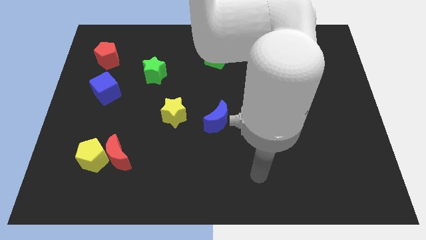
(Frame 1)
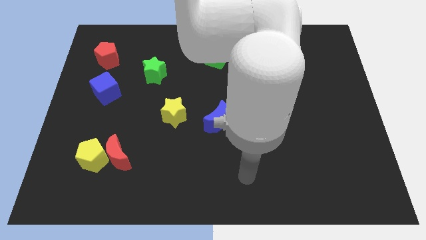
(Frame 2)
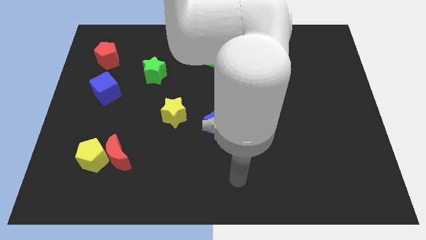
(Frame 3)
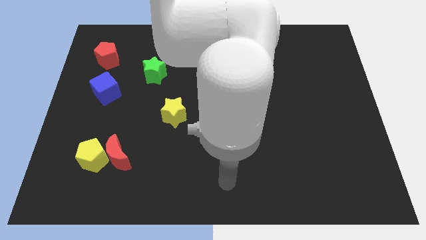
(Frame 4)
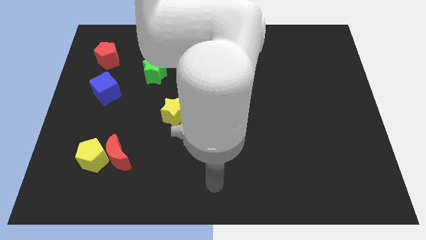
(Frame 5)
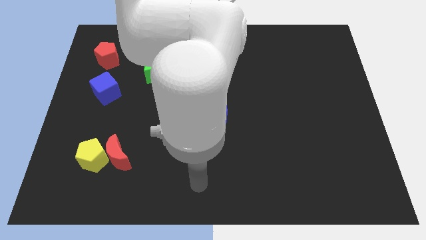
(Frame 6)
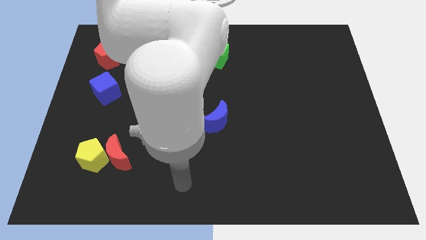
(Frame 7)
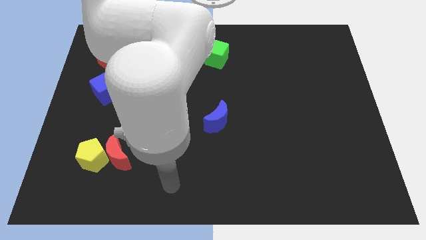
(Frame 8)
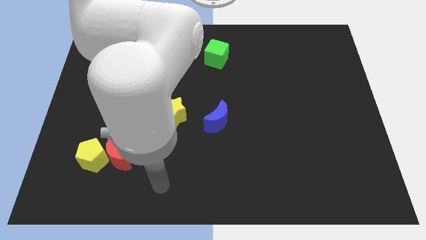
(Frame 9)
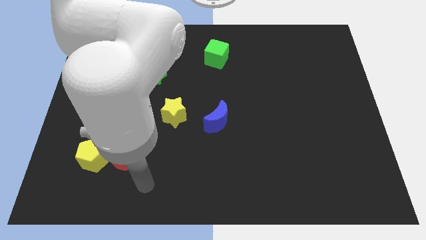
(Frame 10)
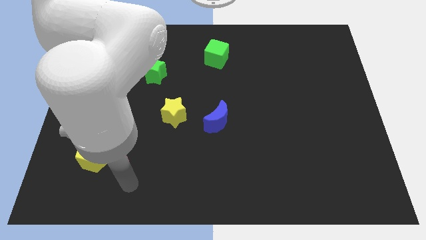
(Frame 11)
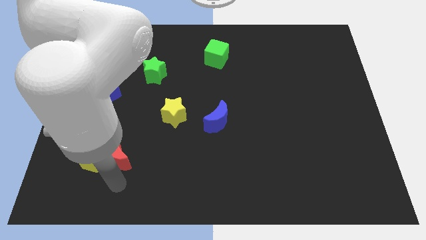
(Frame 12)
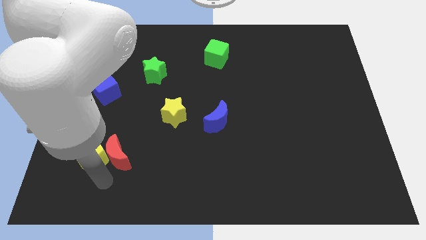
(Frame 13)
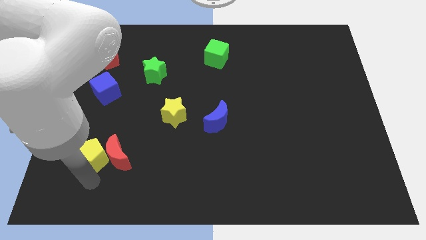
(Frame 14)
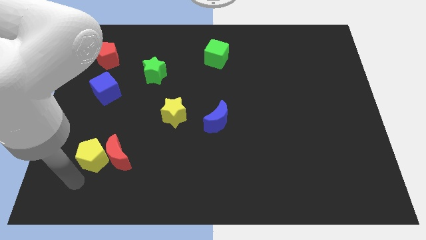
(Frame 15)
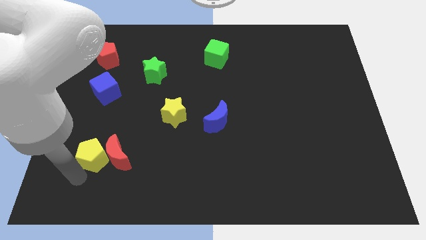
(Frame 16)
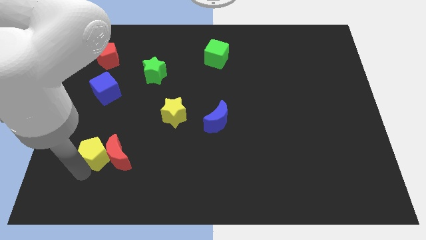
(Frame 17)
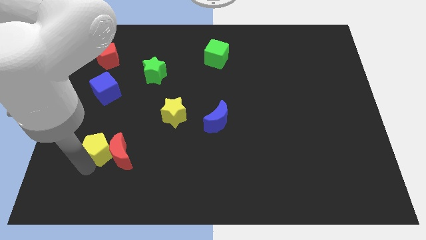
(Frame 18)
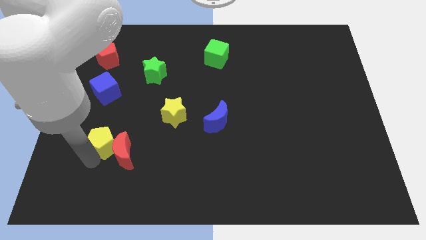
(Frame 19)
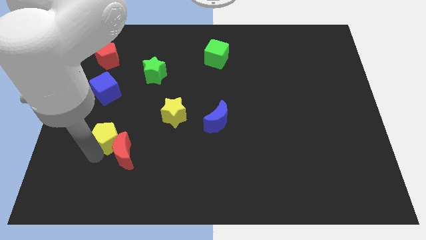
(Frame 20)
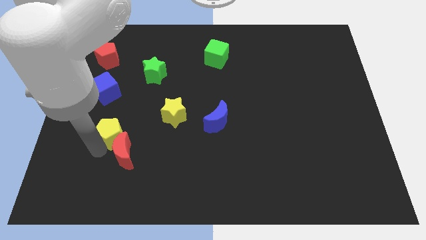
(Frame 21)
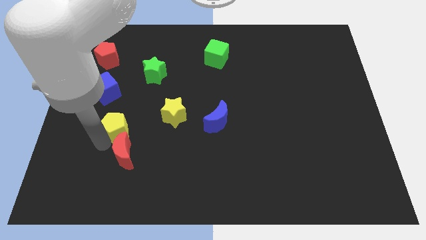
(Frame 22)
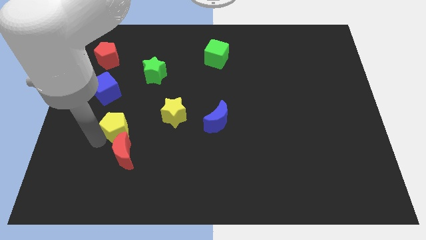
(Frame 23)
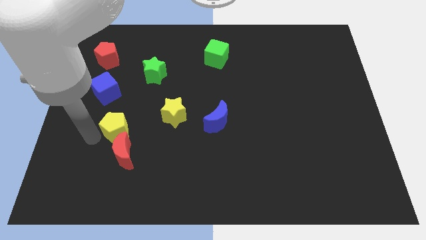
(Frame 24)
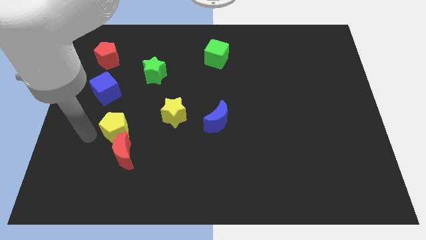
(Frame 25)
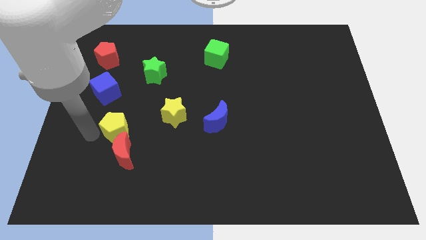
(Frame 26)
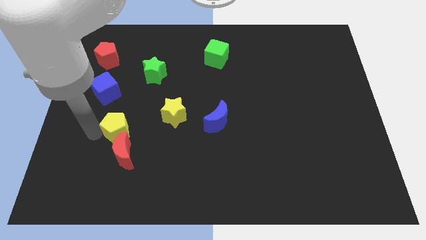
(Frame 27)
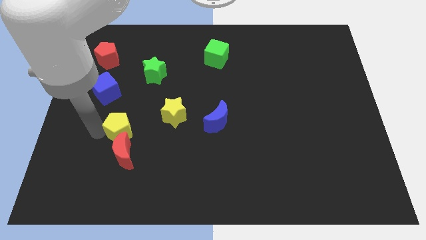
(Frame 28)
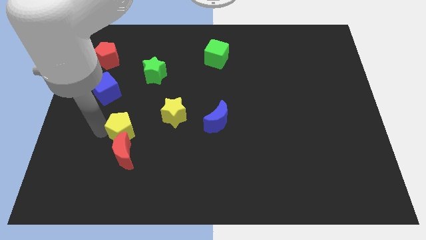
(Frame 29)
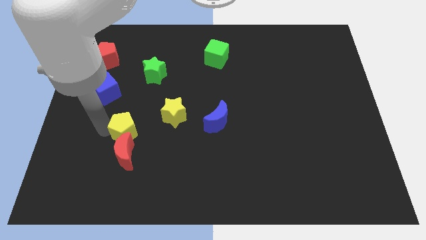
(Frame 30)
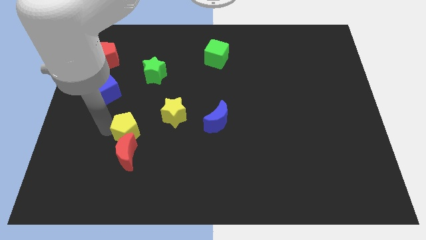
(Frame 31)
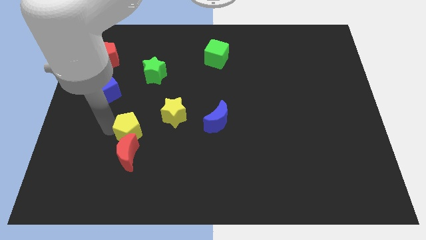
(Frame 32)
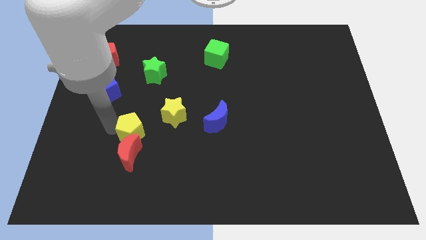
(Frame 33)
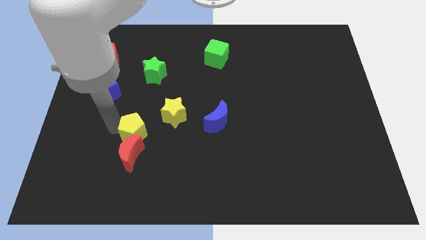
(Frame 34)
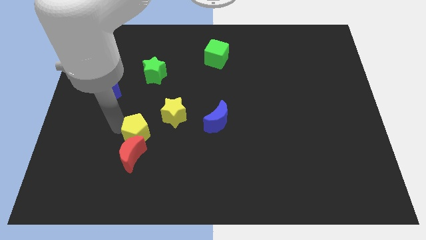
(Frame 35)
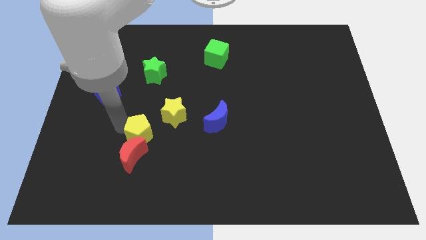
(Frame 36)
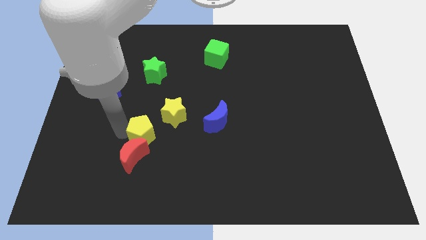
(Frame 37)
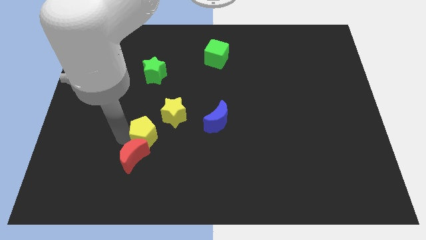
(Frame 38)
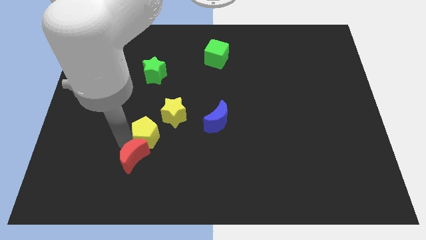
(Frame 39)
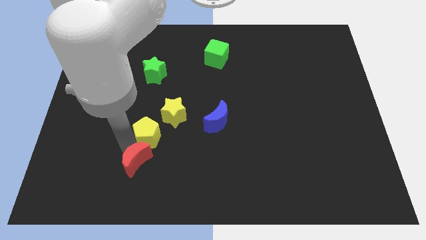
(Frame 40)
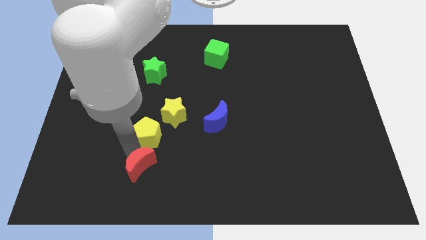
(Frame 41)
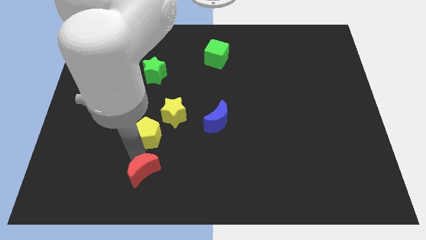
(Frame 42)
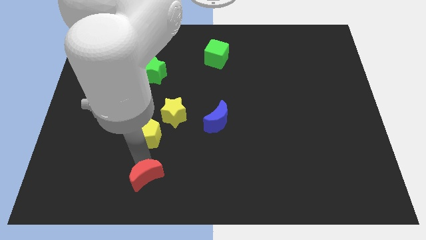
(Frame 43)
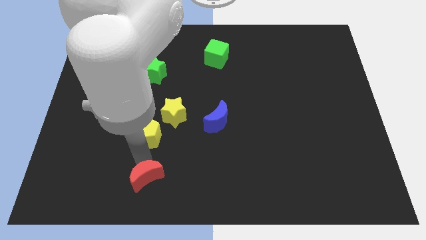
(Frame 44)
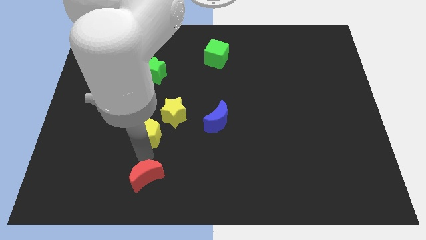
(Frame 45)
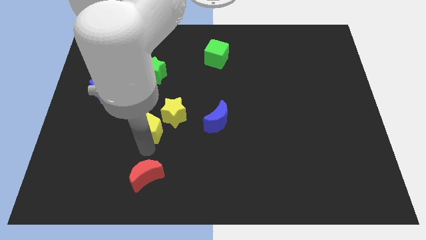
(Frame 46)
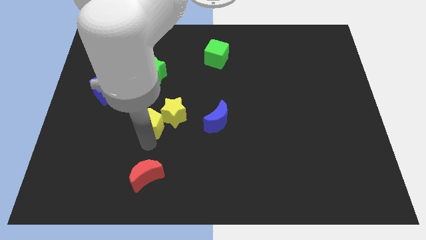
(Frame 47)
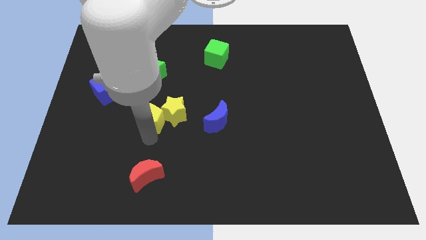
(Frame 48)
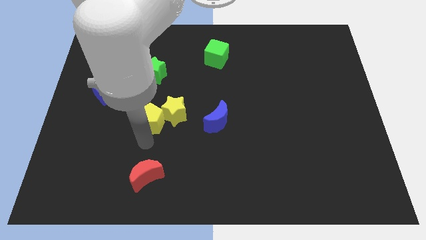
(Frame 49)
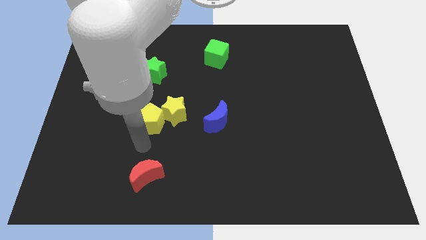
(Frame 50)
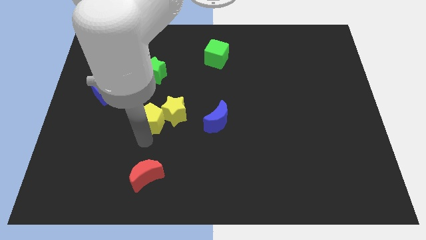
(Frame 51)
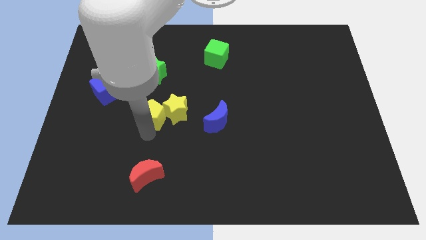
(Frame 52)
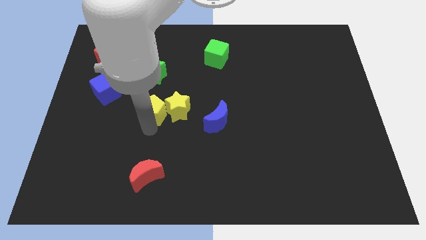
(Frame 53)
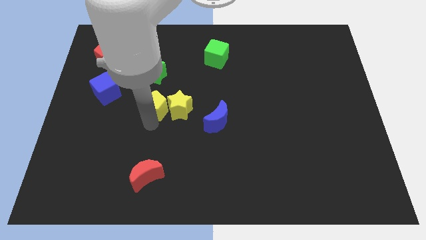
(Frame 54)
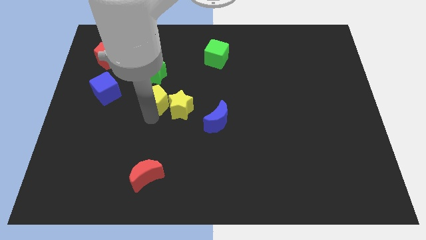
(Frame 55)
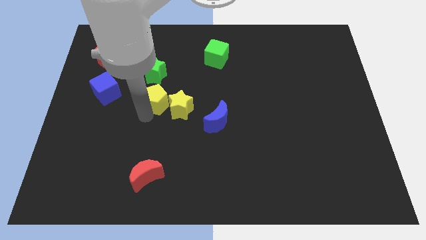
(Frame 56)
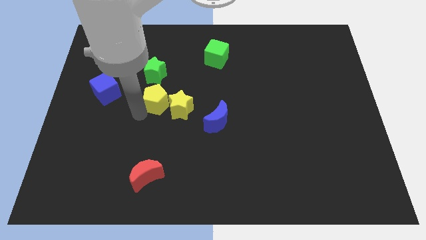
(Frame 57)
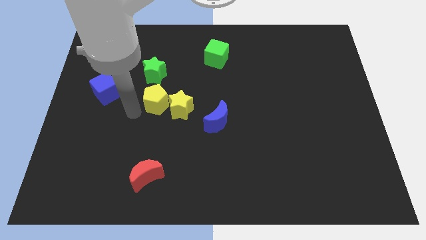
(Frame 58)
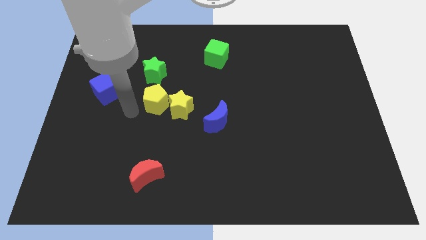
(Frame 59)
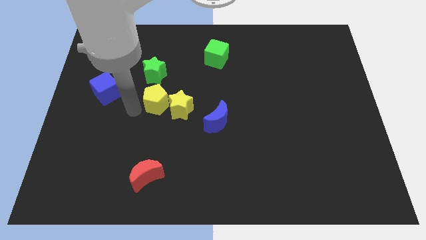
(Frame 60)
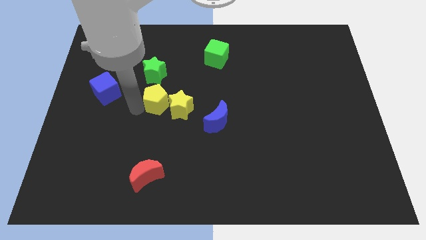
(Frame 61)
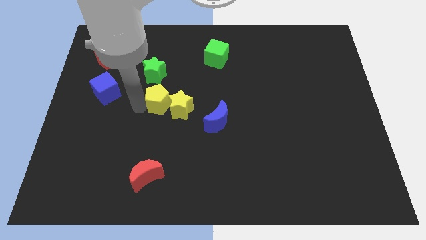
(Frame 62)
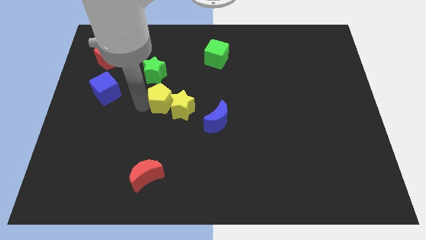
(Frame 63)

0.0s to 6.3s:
move the yellow pentagon diagonally up and right

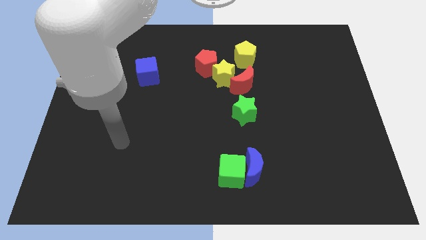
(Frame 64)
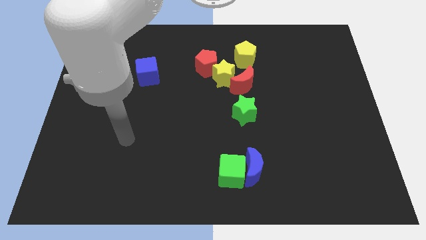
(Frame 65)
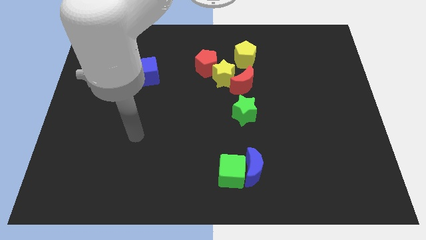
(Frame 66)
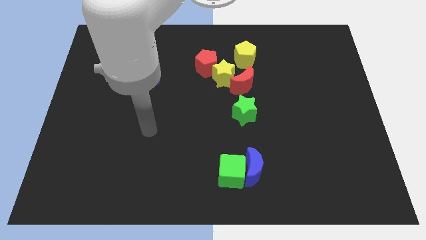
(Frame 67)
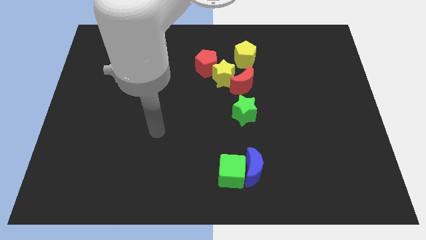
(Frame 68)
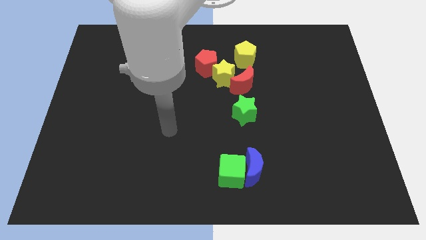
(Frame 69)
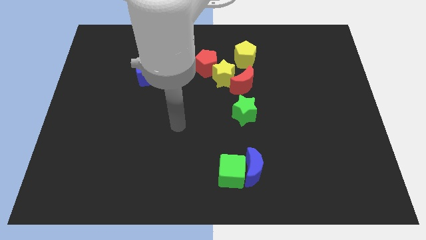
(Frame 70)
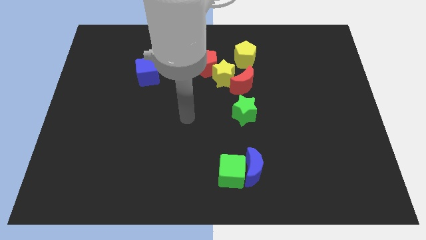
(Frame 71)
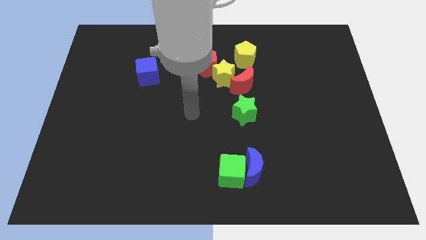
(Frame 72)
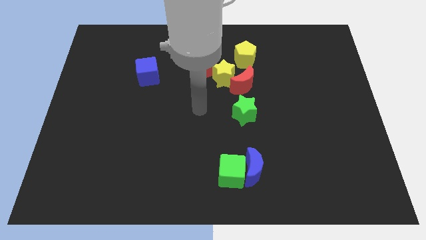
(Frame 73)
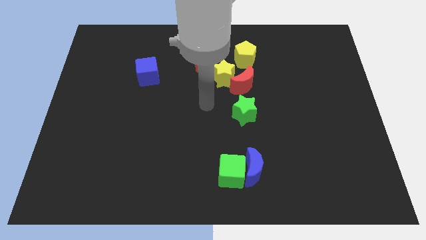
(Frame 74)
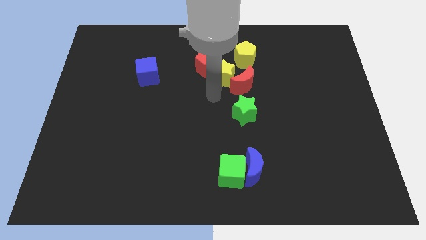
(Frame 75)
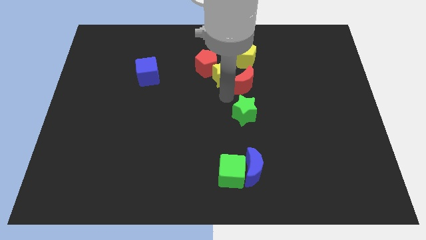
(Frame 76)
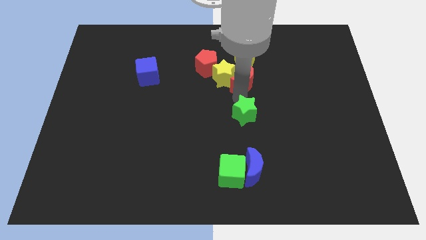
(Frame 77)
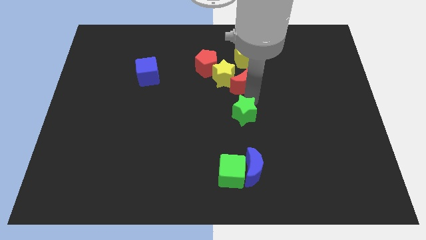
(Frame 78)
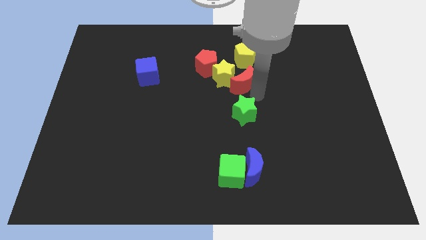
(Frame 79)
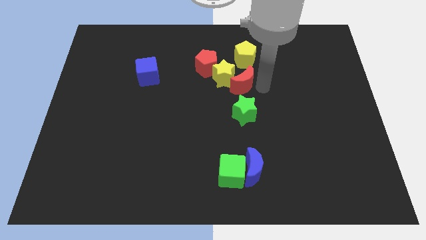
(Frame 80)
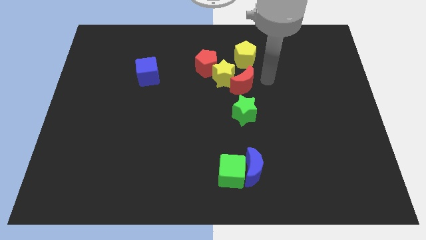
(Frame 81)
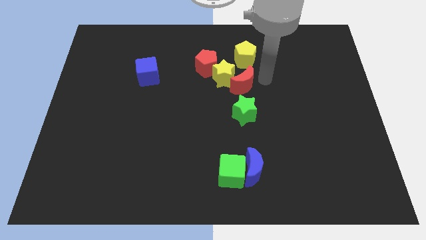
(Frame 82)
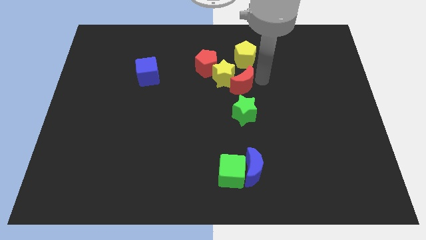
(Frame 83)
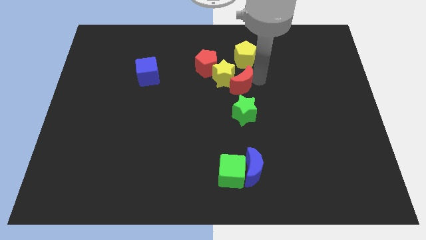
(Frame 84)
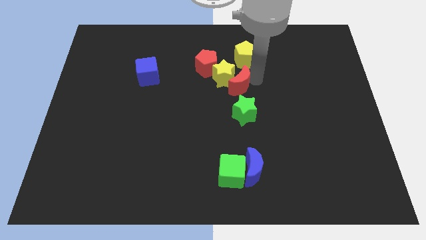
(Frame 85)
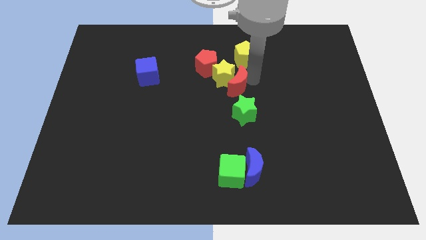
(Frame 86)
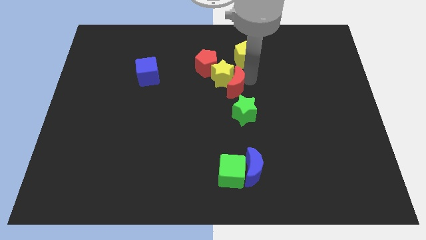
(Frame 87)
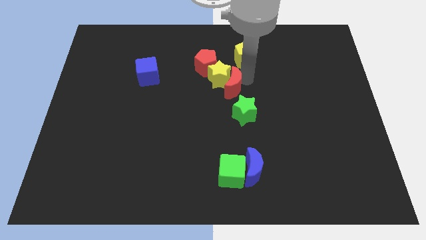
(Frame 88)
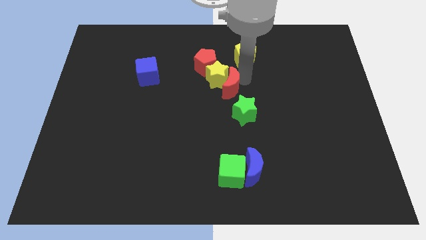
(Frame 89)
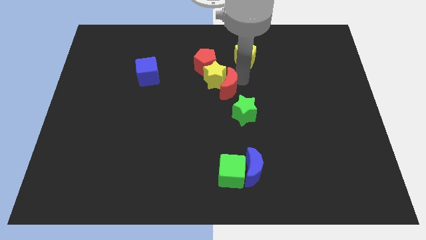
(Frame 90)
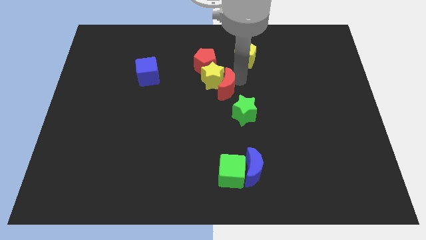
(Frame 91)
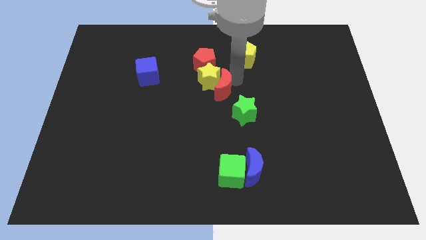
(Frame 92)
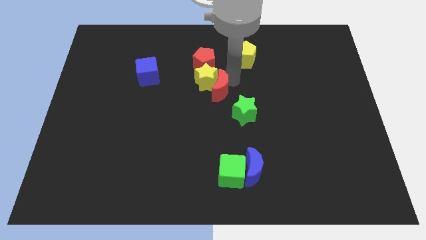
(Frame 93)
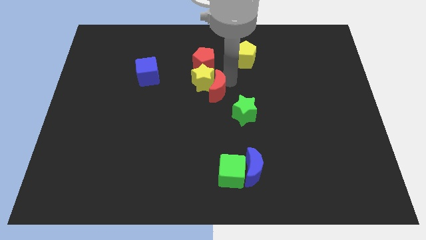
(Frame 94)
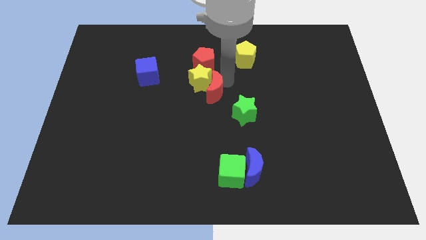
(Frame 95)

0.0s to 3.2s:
move the red moon a bit to the left
